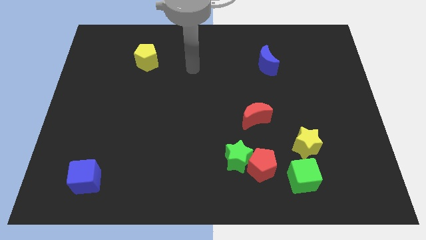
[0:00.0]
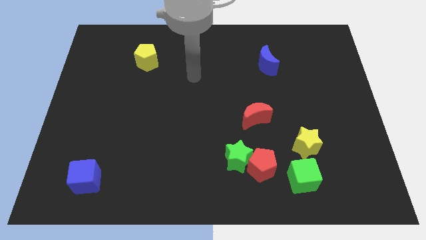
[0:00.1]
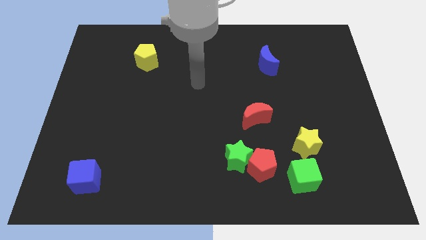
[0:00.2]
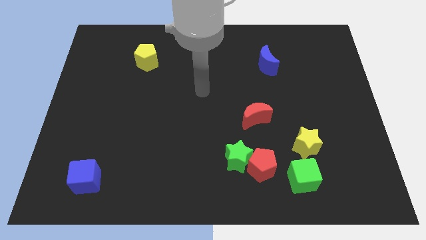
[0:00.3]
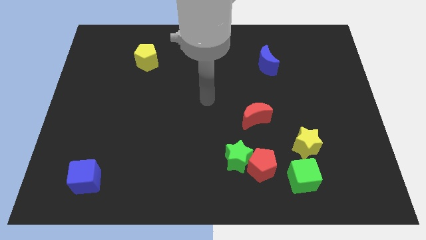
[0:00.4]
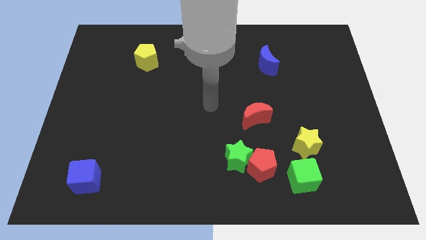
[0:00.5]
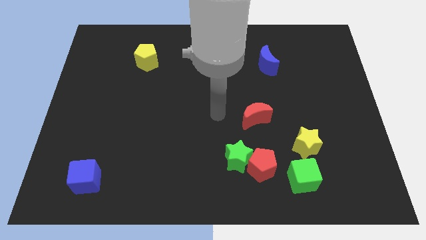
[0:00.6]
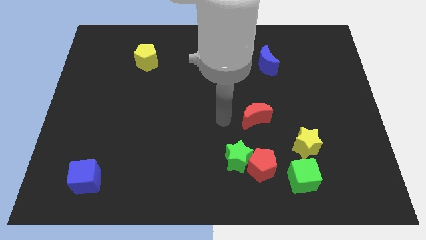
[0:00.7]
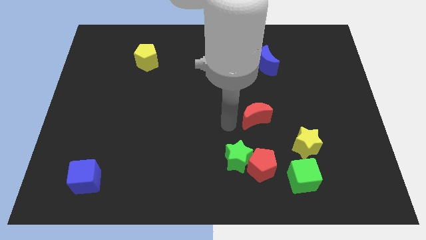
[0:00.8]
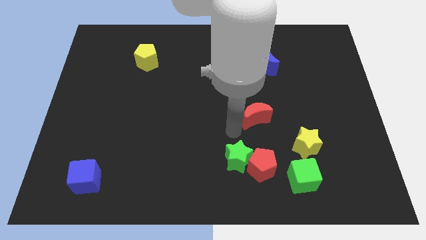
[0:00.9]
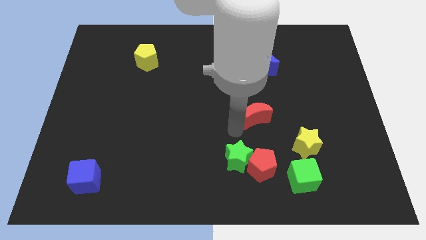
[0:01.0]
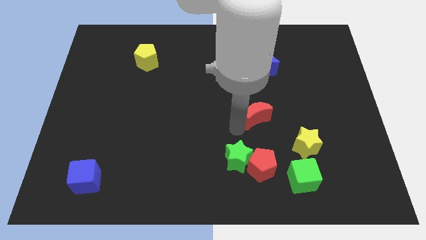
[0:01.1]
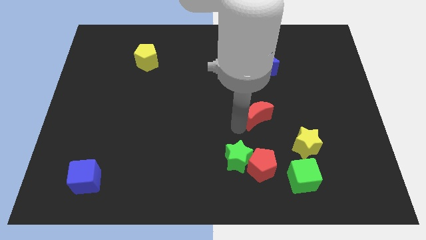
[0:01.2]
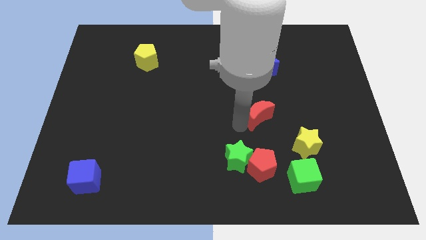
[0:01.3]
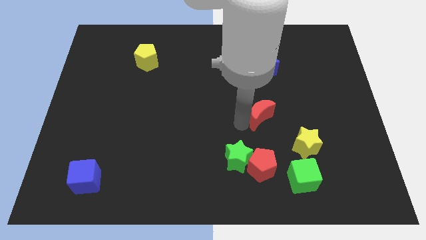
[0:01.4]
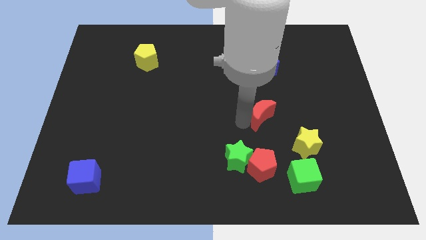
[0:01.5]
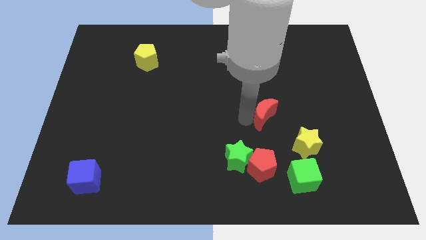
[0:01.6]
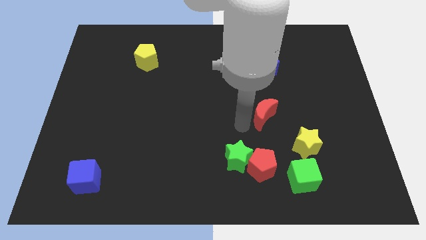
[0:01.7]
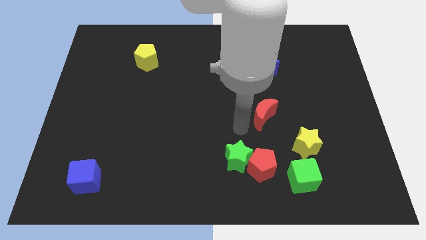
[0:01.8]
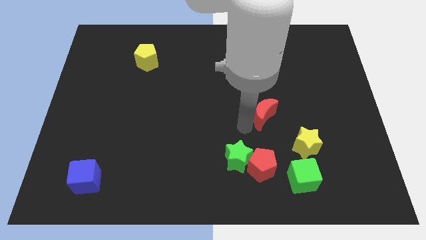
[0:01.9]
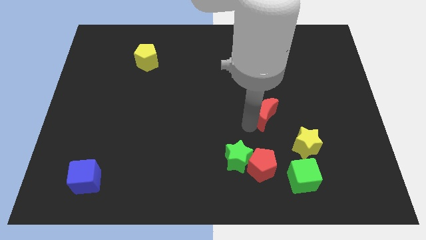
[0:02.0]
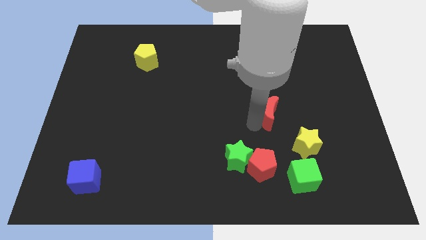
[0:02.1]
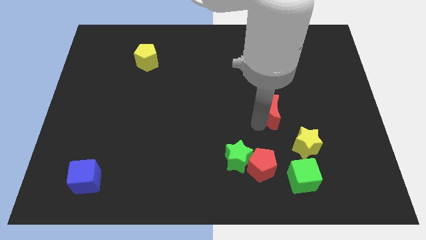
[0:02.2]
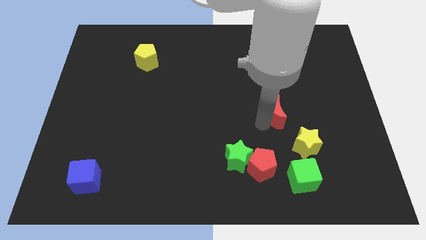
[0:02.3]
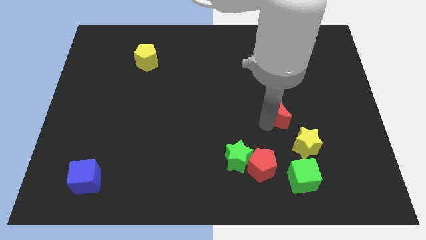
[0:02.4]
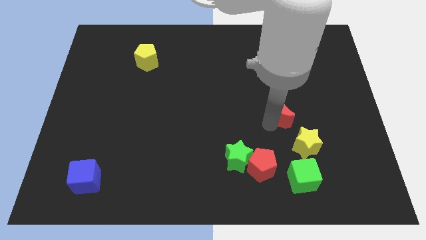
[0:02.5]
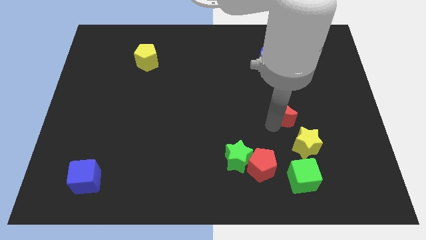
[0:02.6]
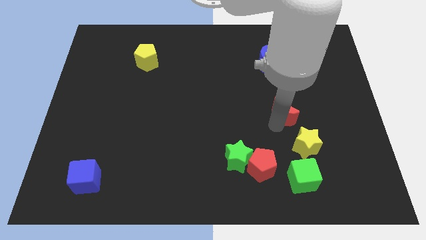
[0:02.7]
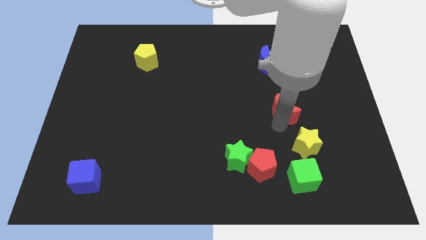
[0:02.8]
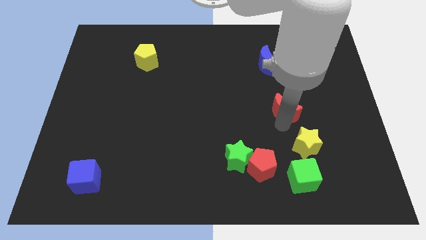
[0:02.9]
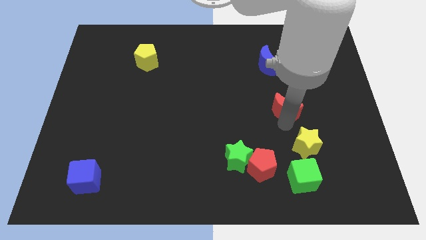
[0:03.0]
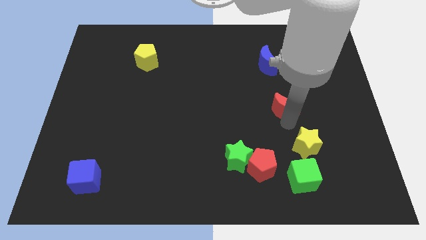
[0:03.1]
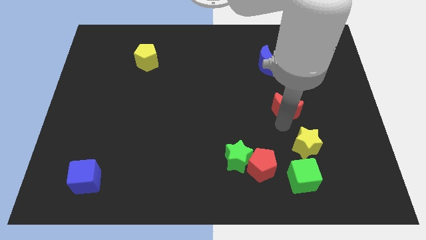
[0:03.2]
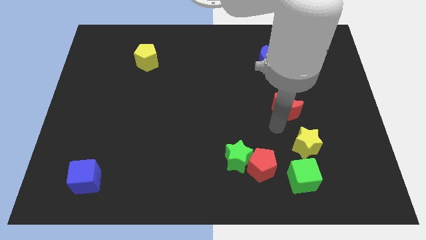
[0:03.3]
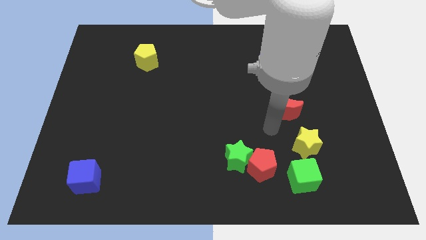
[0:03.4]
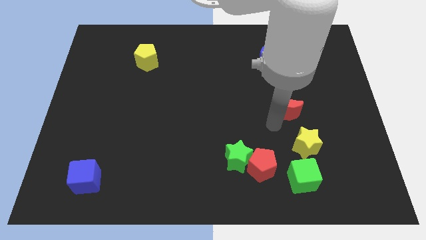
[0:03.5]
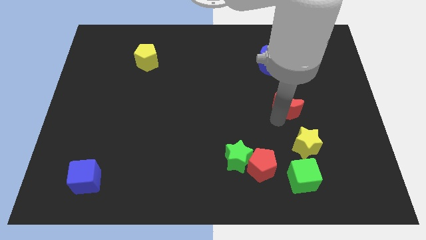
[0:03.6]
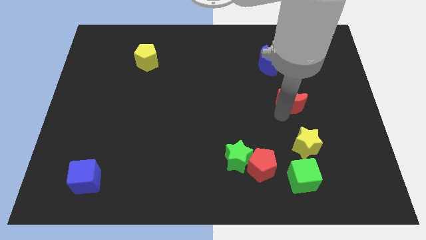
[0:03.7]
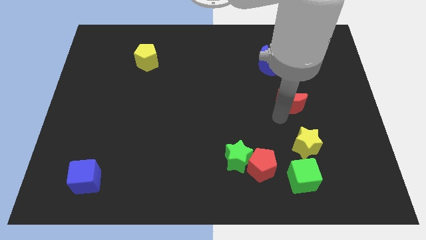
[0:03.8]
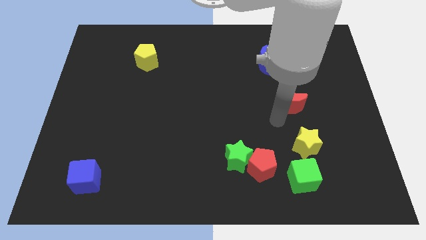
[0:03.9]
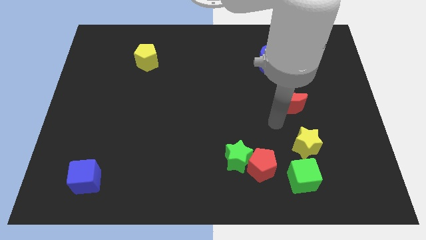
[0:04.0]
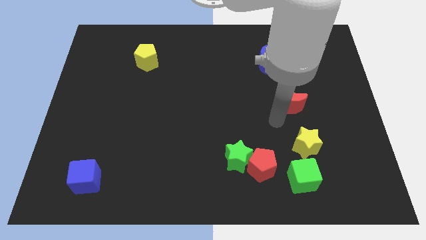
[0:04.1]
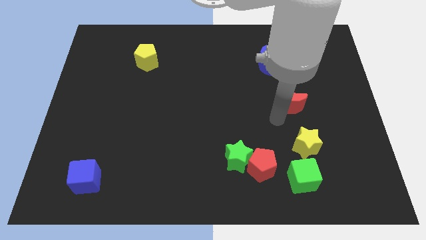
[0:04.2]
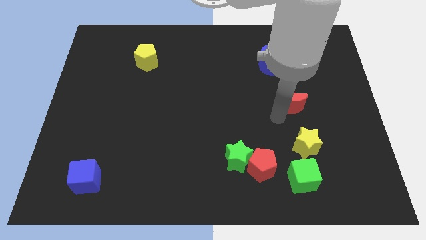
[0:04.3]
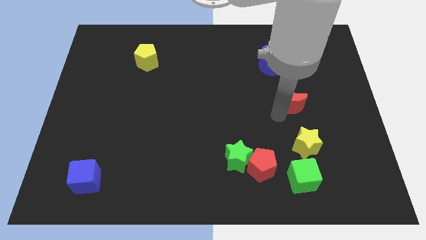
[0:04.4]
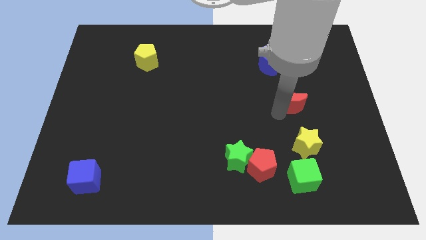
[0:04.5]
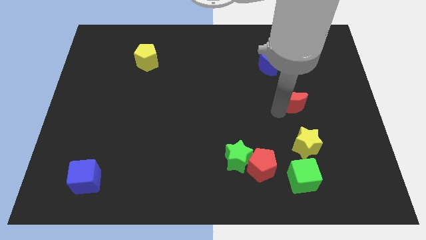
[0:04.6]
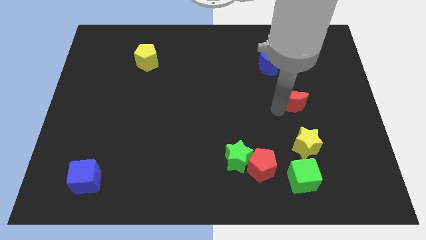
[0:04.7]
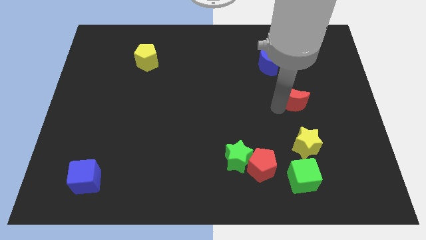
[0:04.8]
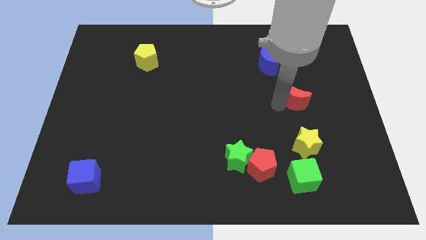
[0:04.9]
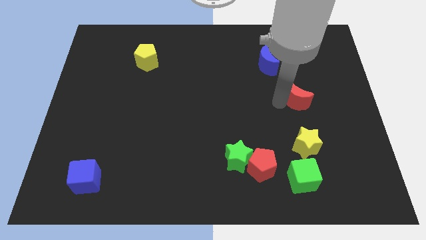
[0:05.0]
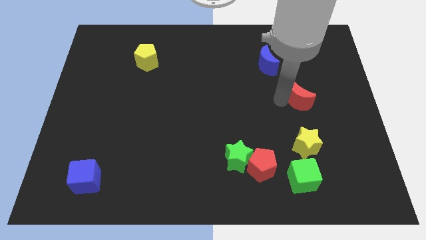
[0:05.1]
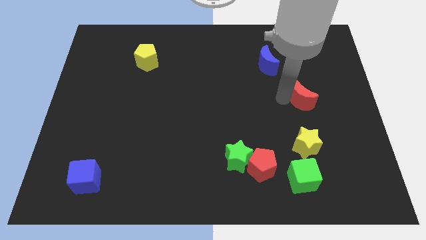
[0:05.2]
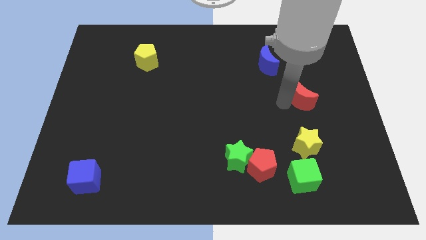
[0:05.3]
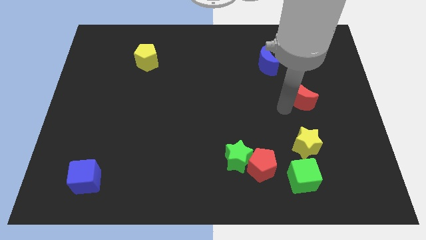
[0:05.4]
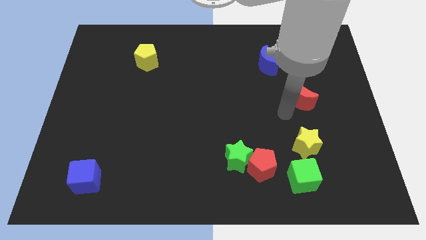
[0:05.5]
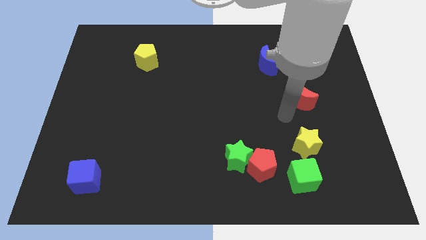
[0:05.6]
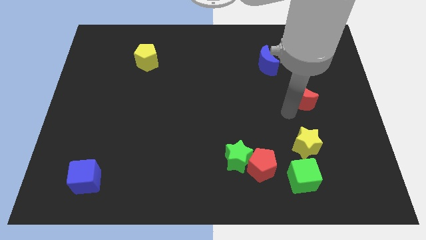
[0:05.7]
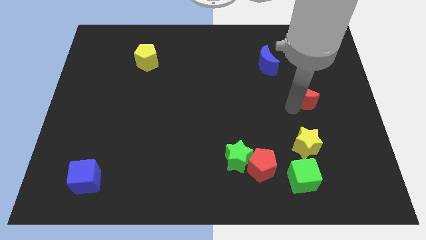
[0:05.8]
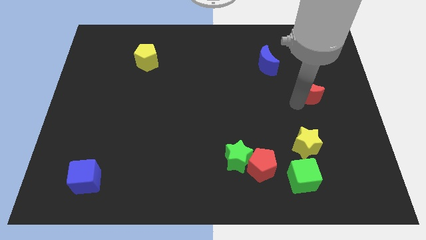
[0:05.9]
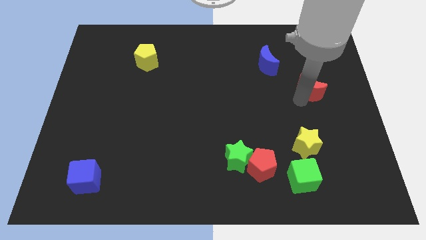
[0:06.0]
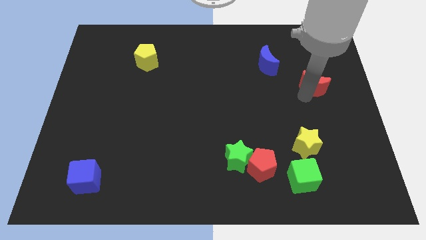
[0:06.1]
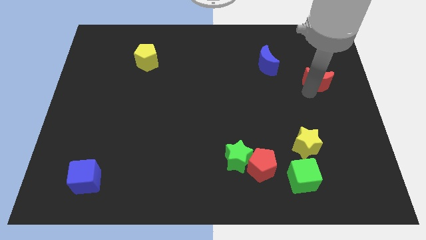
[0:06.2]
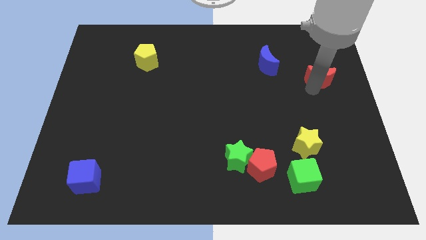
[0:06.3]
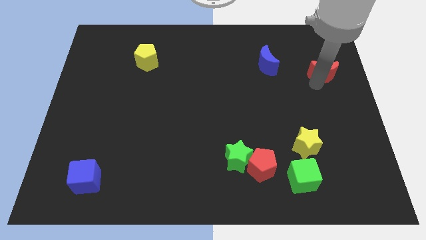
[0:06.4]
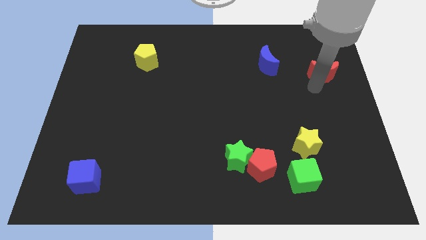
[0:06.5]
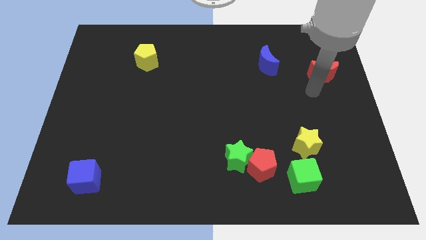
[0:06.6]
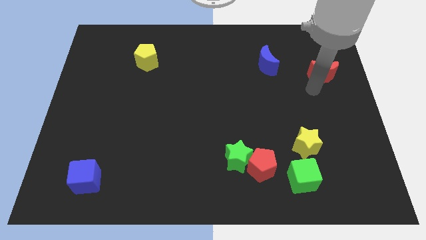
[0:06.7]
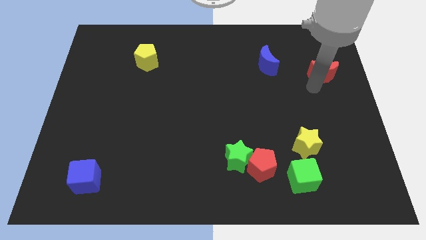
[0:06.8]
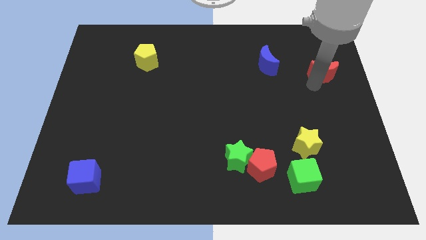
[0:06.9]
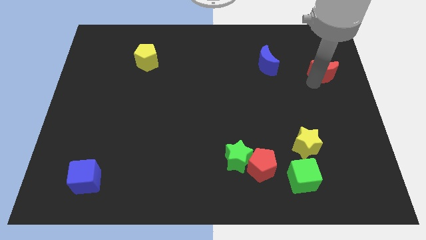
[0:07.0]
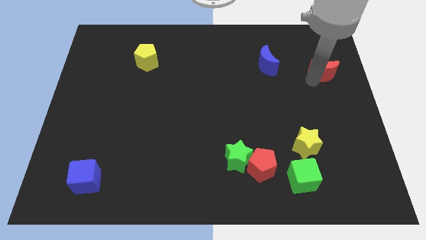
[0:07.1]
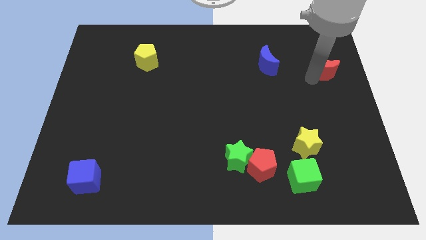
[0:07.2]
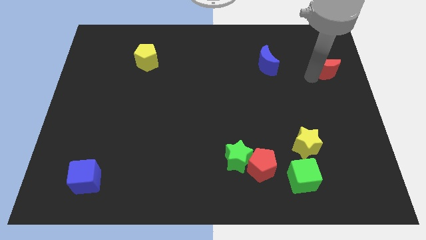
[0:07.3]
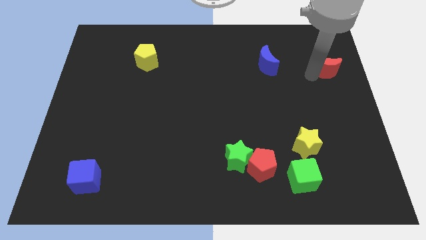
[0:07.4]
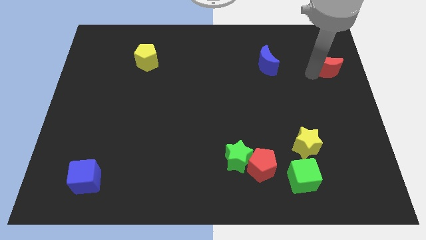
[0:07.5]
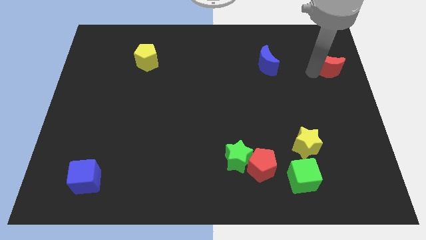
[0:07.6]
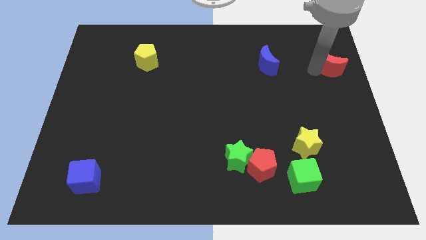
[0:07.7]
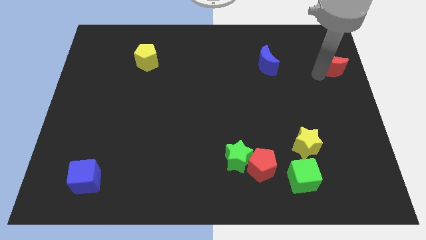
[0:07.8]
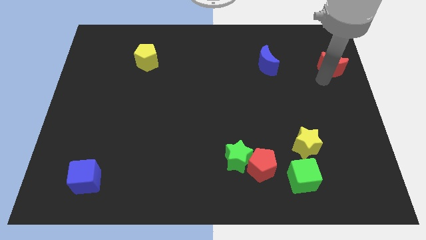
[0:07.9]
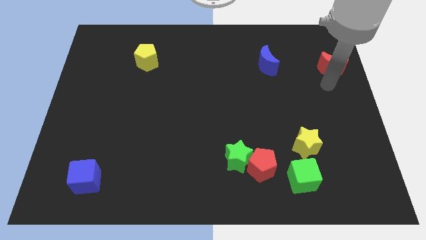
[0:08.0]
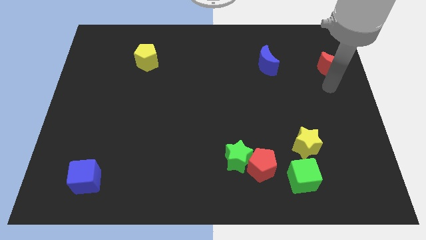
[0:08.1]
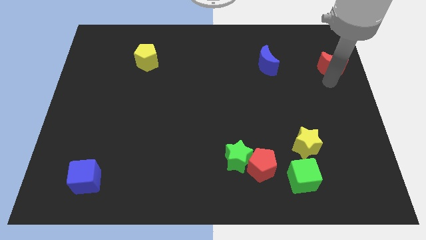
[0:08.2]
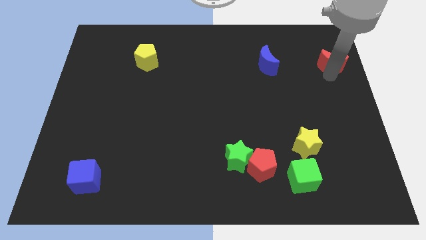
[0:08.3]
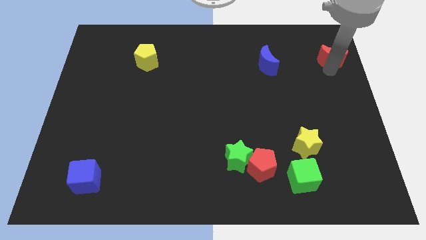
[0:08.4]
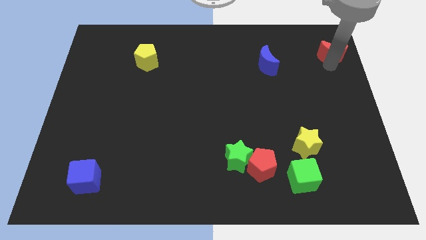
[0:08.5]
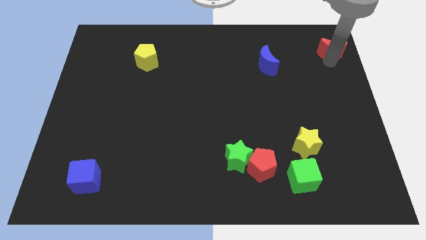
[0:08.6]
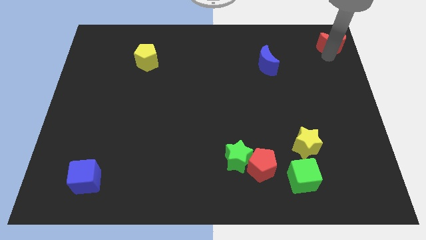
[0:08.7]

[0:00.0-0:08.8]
put the red moon to the upper right corner
